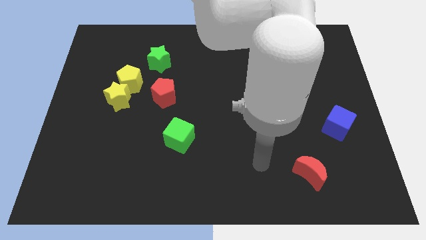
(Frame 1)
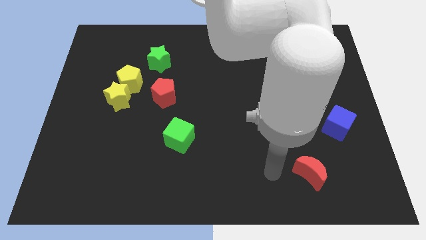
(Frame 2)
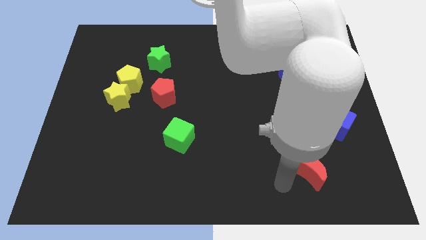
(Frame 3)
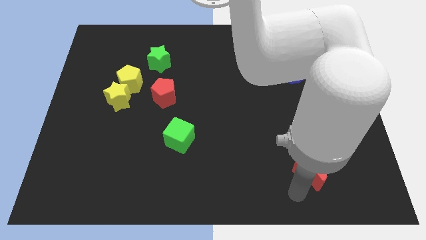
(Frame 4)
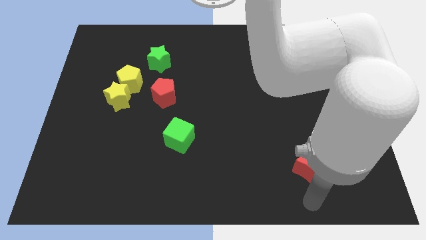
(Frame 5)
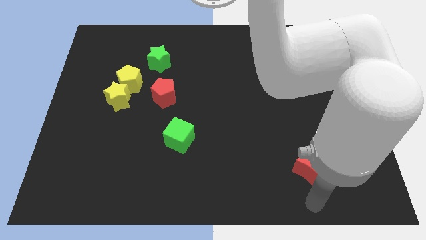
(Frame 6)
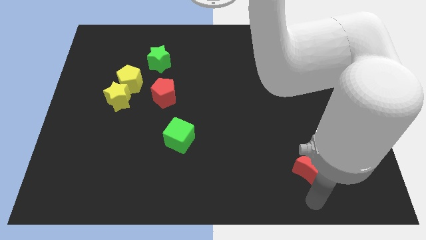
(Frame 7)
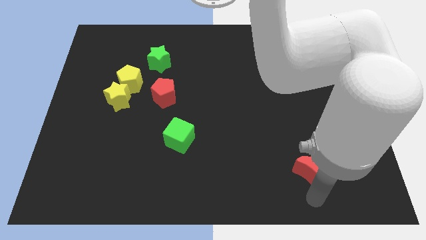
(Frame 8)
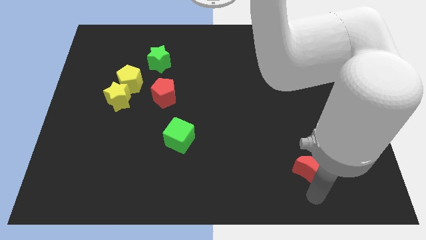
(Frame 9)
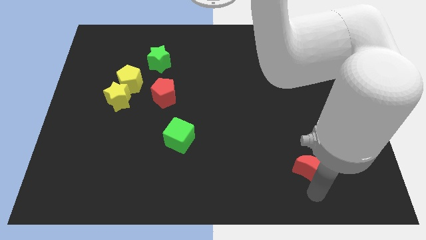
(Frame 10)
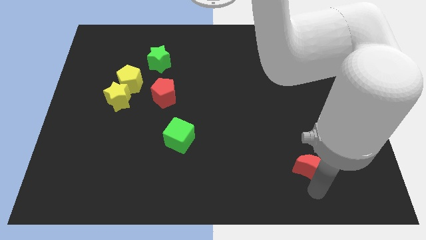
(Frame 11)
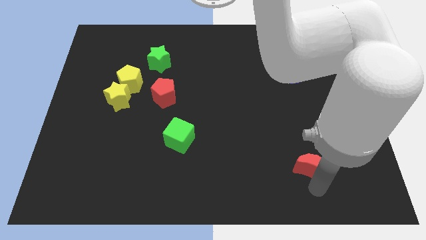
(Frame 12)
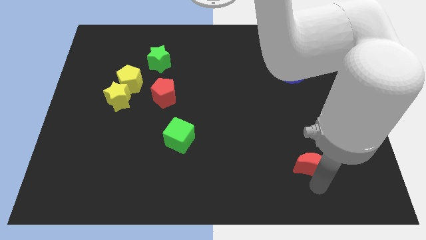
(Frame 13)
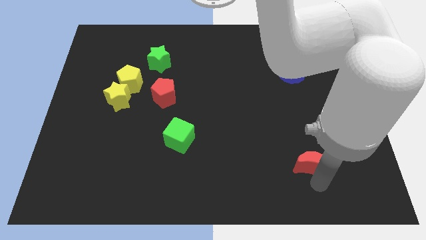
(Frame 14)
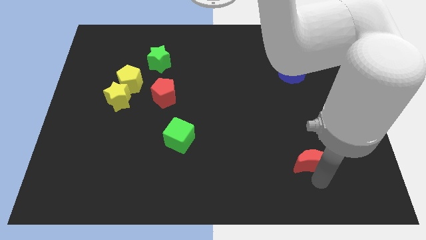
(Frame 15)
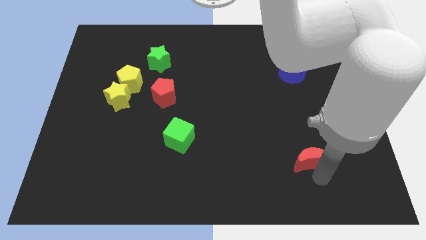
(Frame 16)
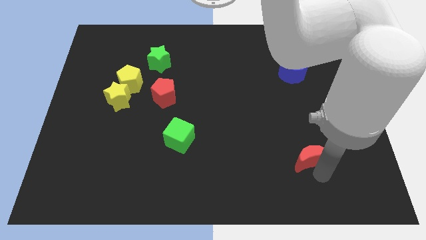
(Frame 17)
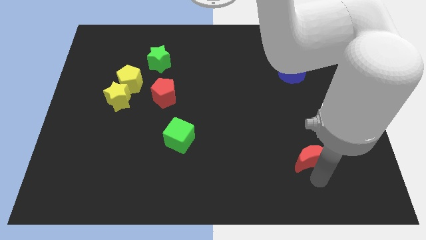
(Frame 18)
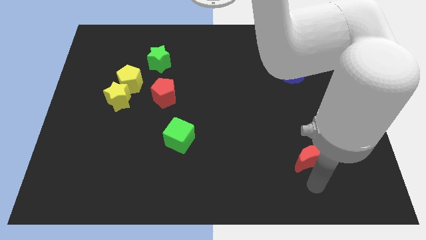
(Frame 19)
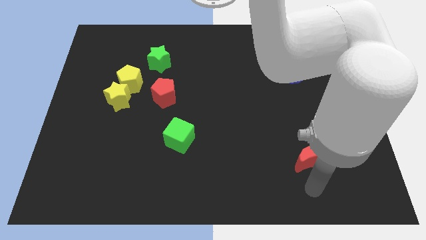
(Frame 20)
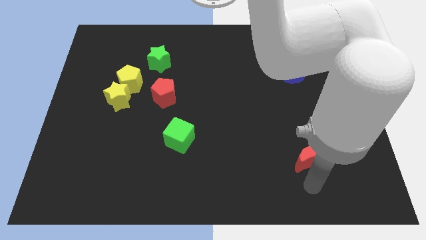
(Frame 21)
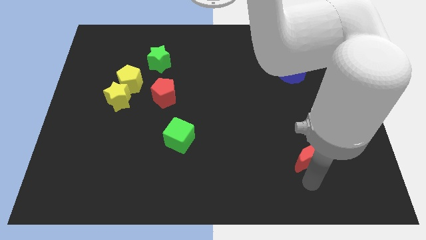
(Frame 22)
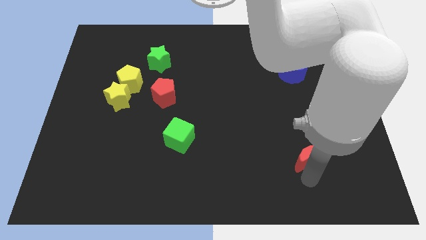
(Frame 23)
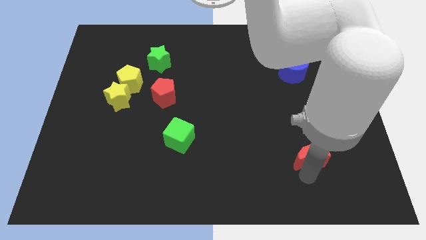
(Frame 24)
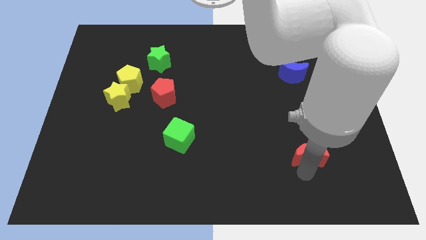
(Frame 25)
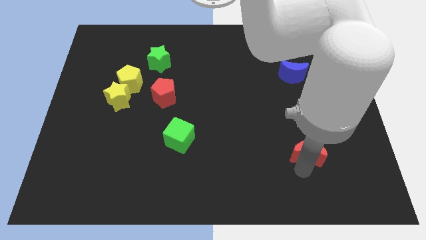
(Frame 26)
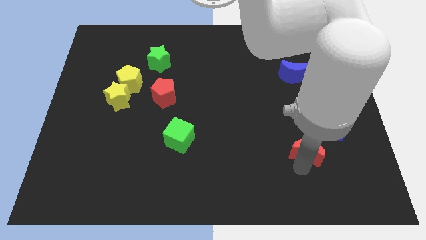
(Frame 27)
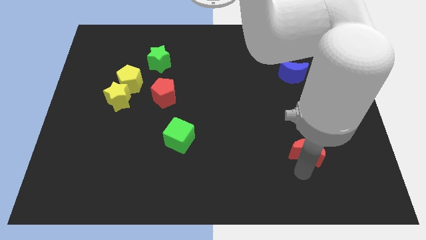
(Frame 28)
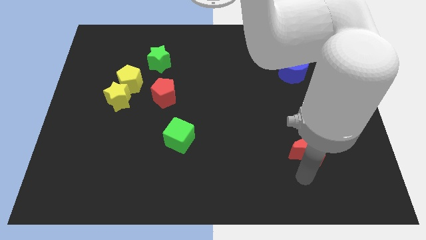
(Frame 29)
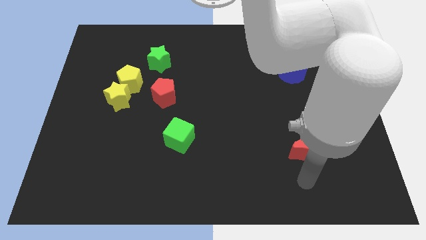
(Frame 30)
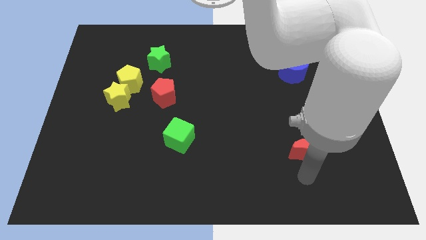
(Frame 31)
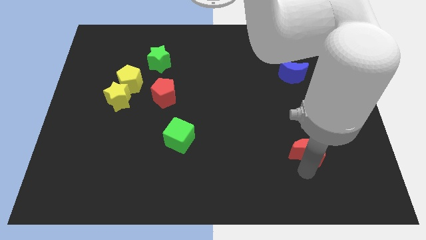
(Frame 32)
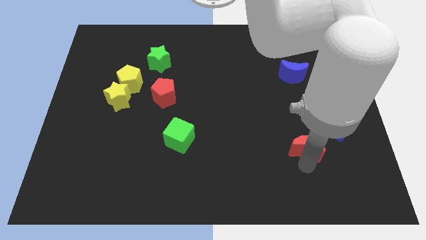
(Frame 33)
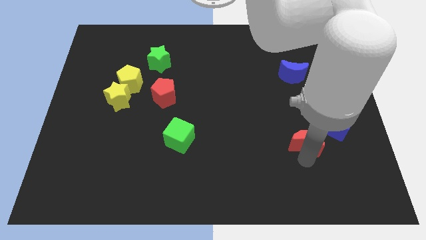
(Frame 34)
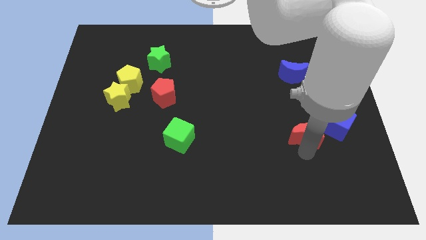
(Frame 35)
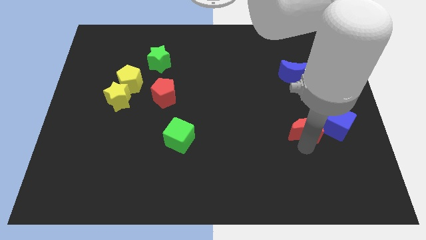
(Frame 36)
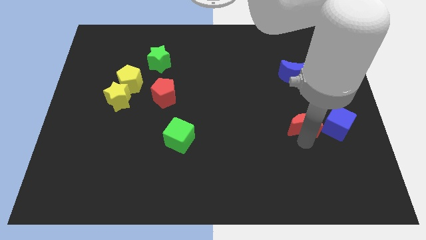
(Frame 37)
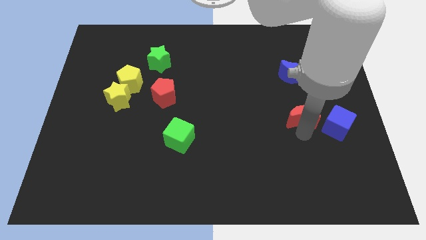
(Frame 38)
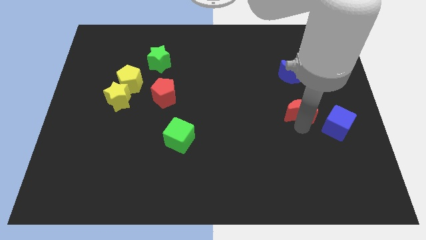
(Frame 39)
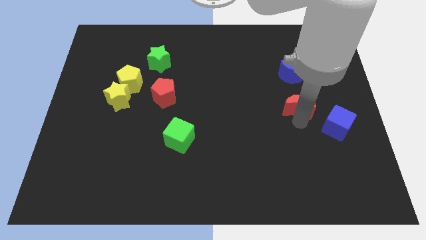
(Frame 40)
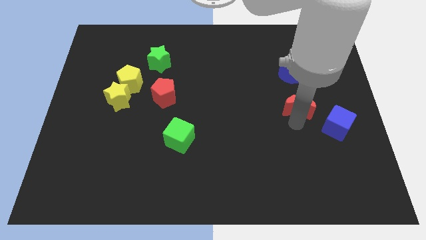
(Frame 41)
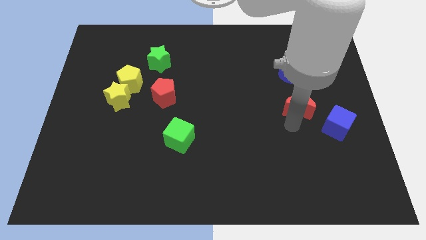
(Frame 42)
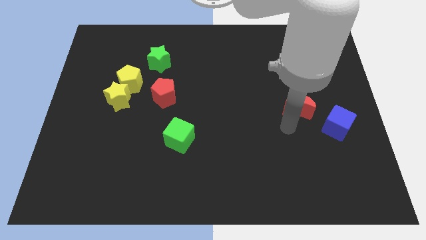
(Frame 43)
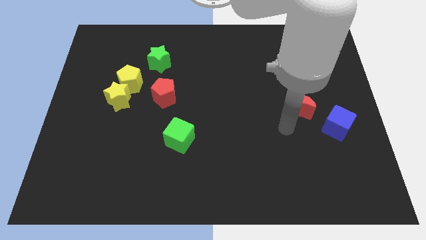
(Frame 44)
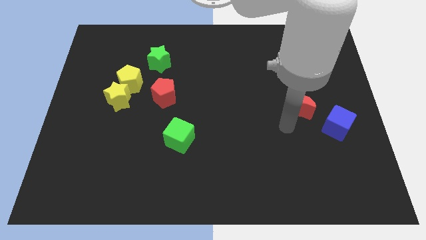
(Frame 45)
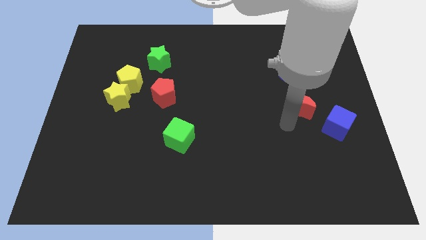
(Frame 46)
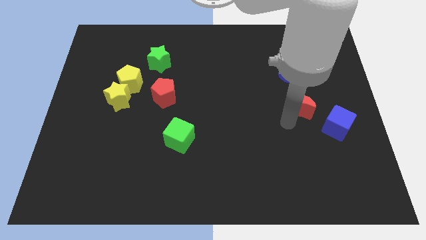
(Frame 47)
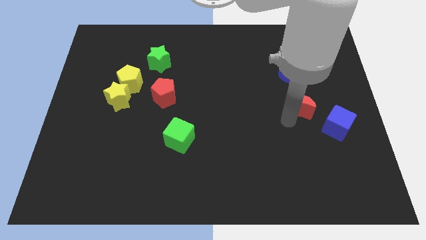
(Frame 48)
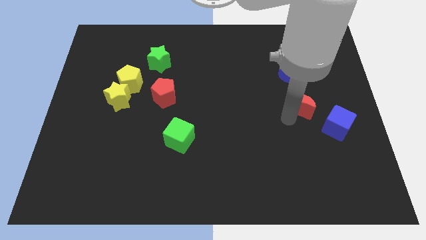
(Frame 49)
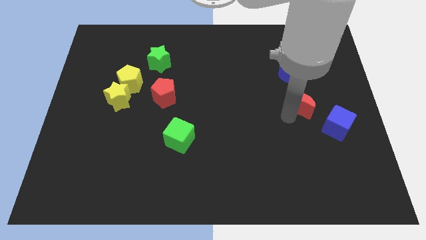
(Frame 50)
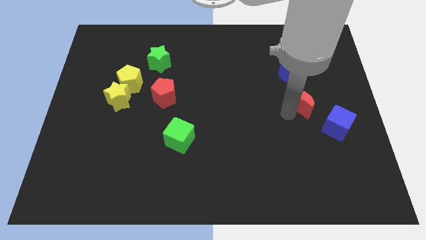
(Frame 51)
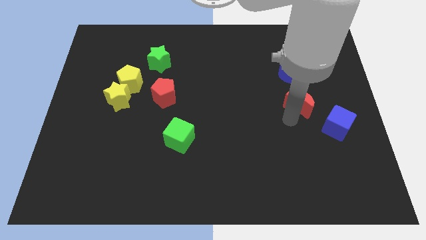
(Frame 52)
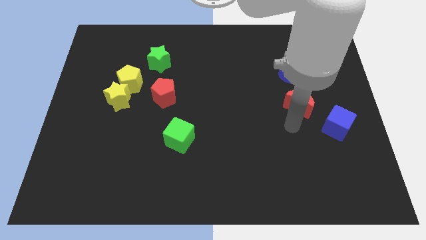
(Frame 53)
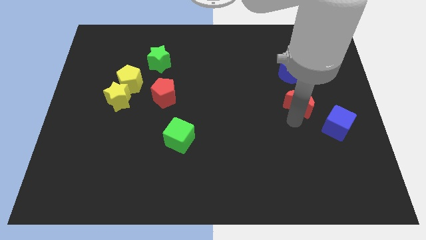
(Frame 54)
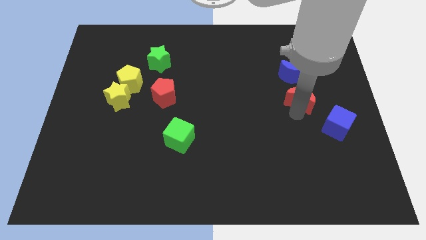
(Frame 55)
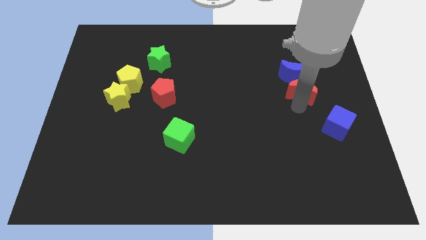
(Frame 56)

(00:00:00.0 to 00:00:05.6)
slide the red moon upwards

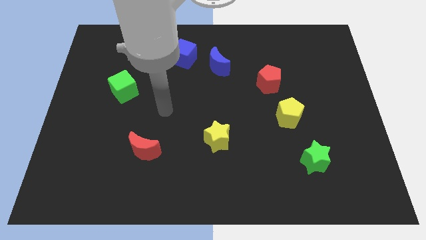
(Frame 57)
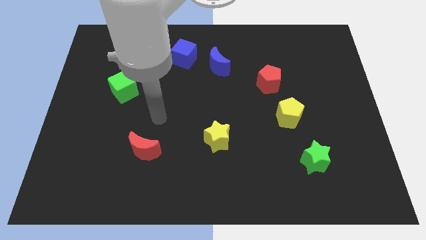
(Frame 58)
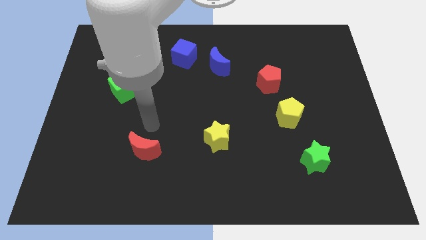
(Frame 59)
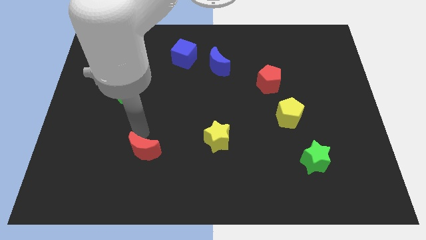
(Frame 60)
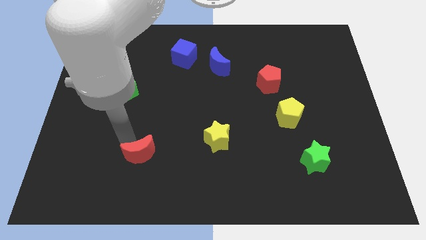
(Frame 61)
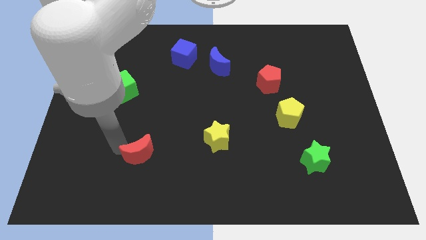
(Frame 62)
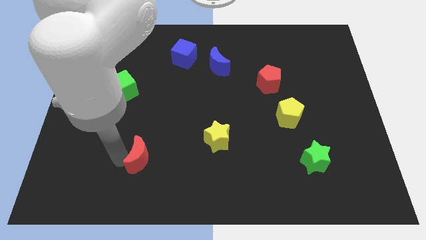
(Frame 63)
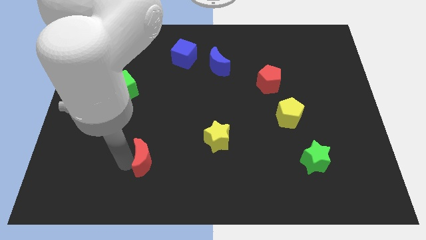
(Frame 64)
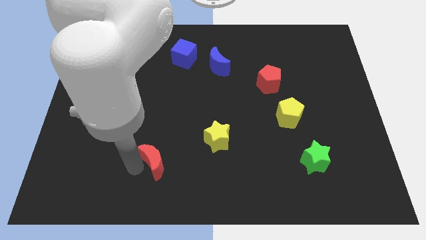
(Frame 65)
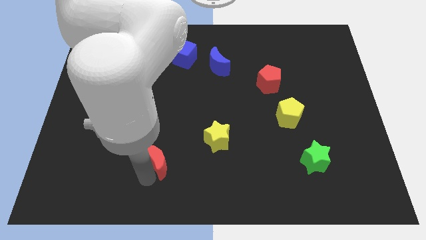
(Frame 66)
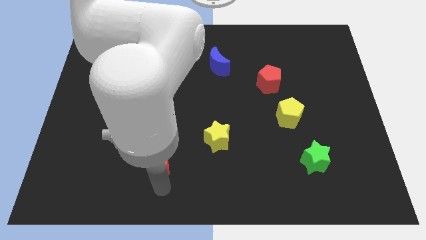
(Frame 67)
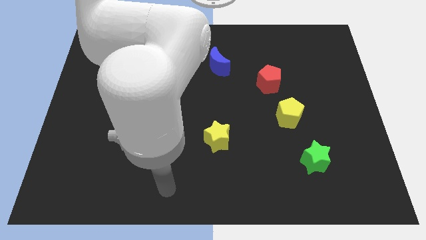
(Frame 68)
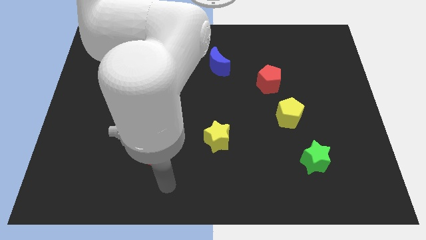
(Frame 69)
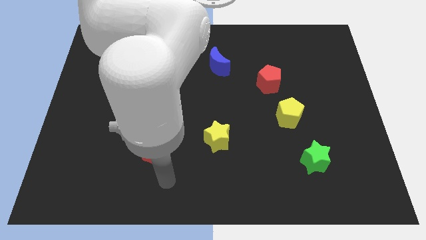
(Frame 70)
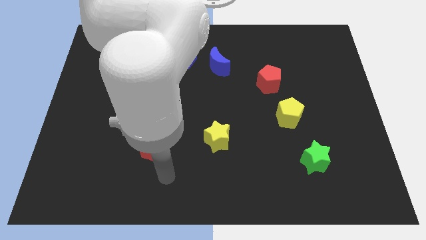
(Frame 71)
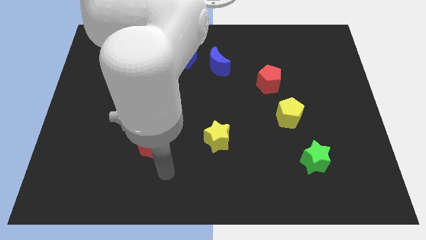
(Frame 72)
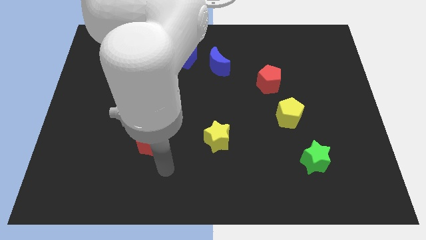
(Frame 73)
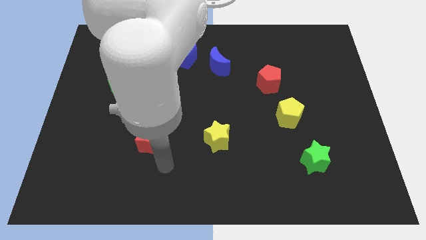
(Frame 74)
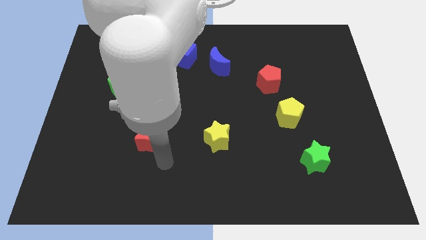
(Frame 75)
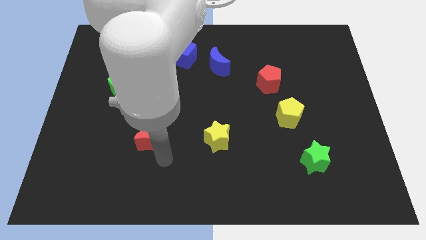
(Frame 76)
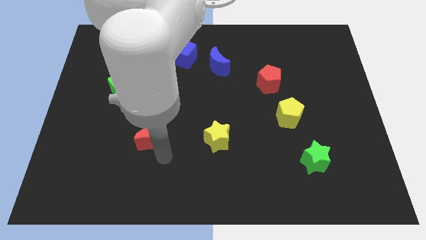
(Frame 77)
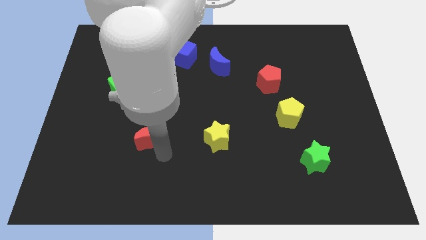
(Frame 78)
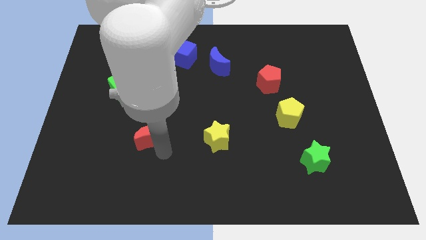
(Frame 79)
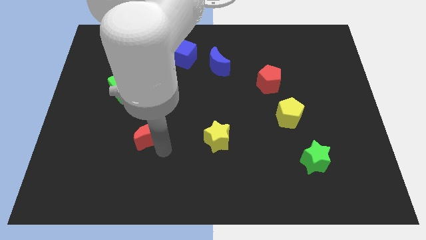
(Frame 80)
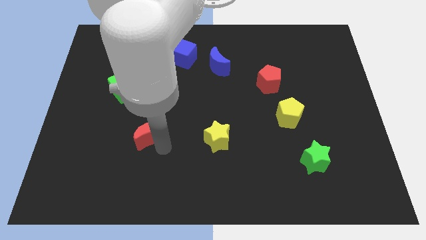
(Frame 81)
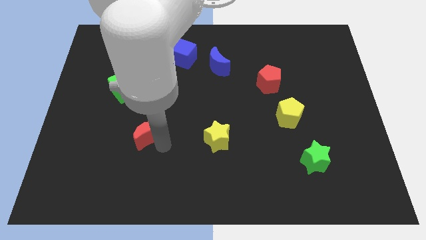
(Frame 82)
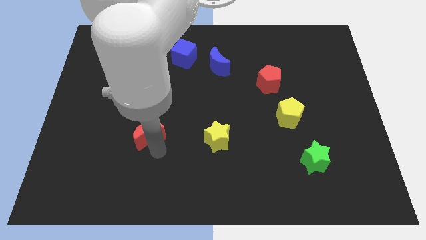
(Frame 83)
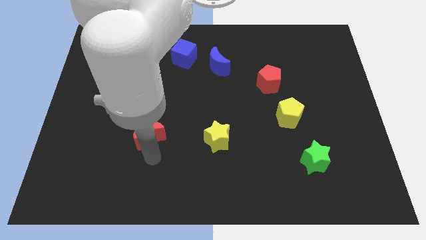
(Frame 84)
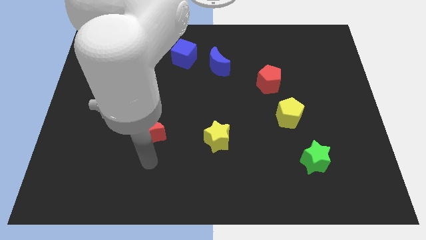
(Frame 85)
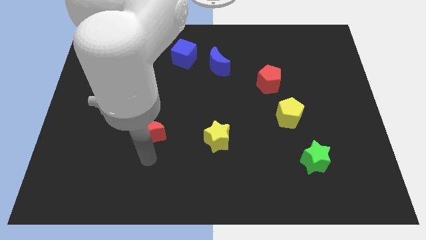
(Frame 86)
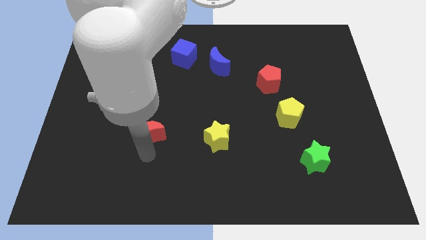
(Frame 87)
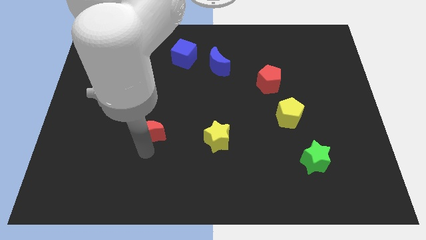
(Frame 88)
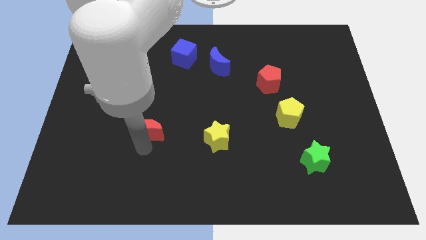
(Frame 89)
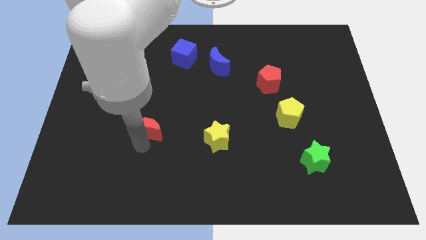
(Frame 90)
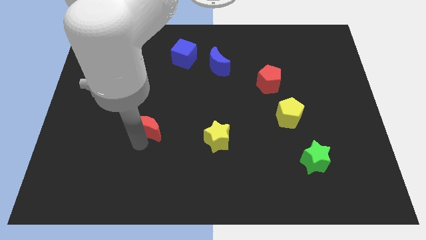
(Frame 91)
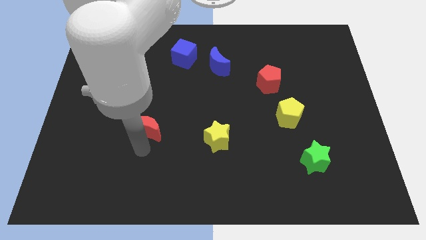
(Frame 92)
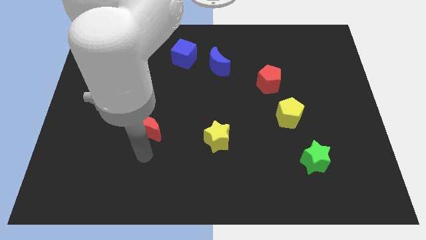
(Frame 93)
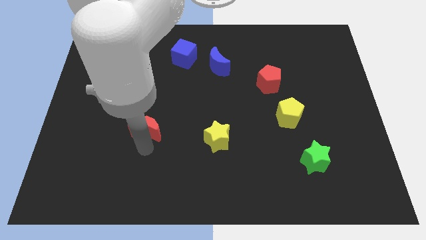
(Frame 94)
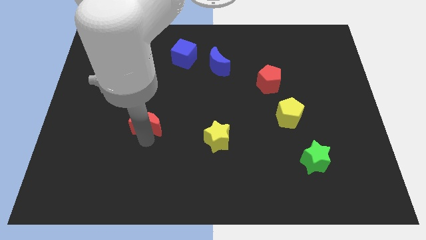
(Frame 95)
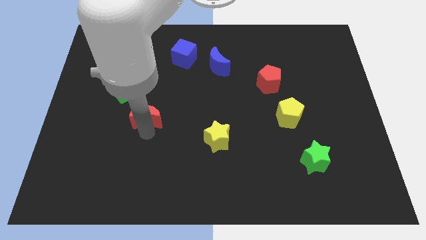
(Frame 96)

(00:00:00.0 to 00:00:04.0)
move the red moon a little up
